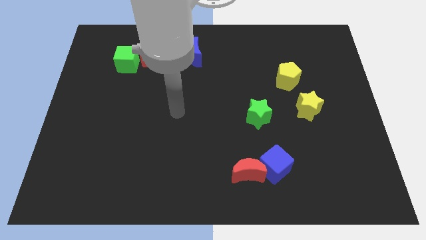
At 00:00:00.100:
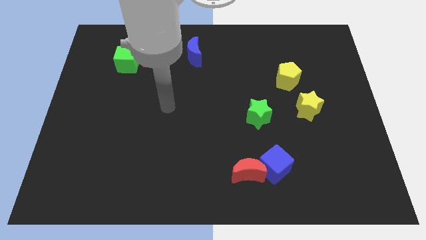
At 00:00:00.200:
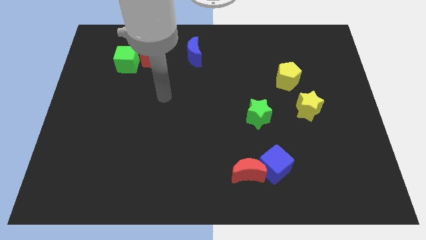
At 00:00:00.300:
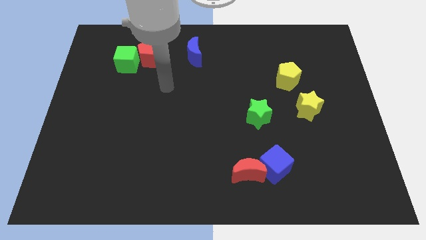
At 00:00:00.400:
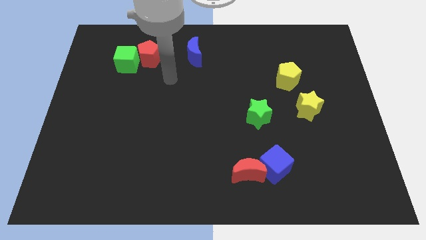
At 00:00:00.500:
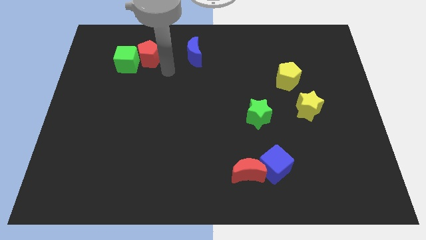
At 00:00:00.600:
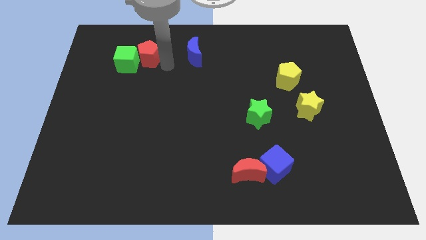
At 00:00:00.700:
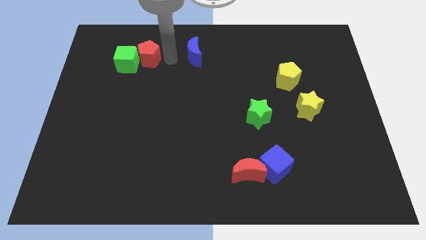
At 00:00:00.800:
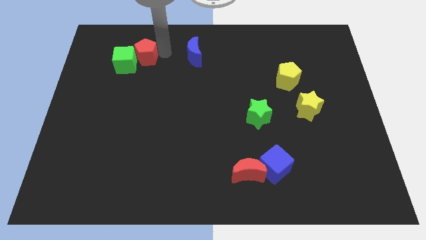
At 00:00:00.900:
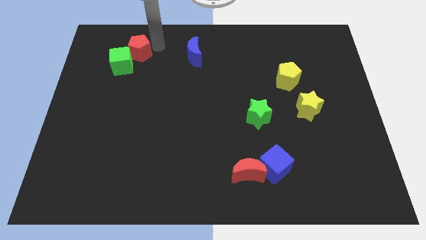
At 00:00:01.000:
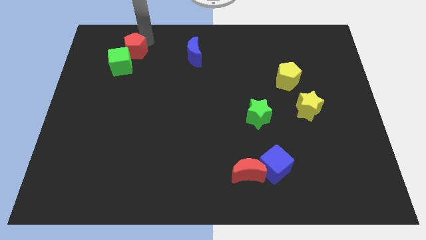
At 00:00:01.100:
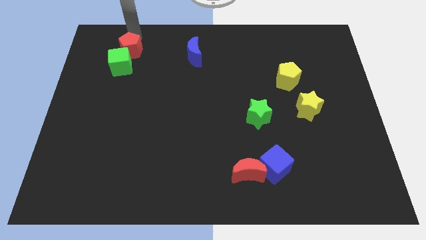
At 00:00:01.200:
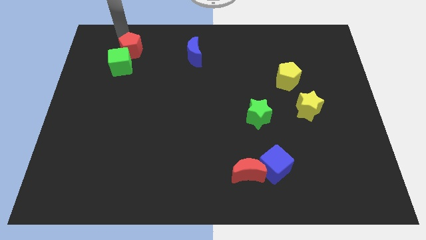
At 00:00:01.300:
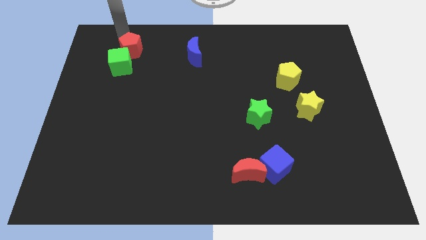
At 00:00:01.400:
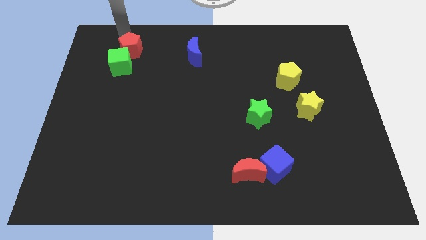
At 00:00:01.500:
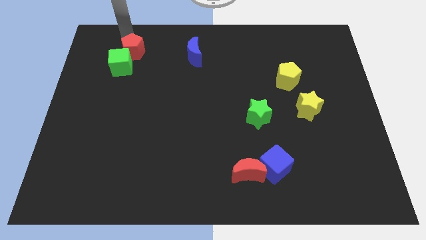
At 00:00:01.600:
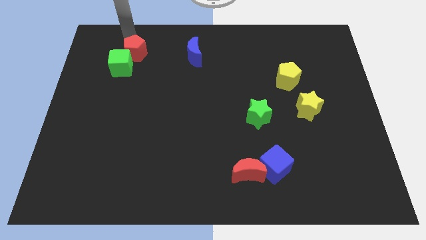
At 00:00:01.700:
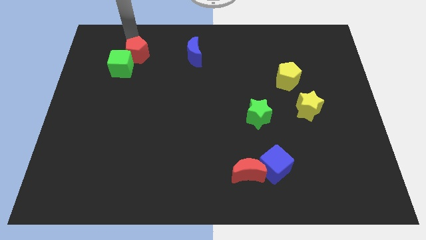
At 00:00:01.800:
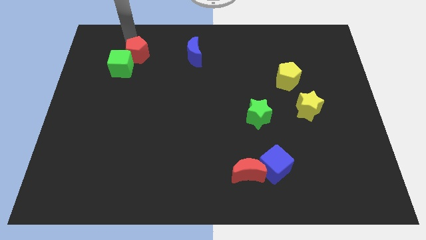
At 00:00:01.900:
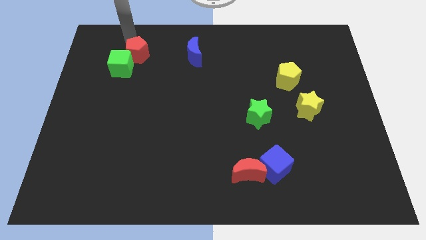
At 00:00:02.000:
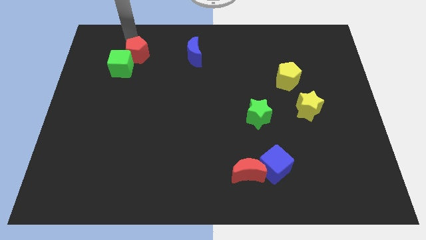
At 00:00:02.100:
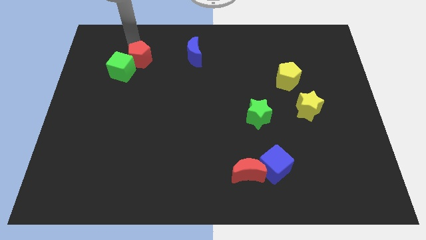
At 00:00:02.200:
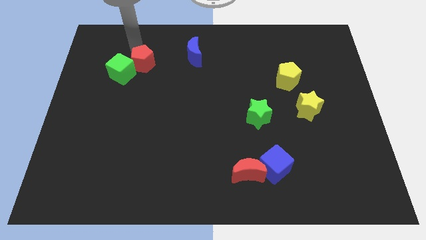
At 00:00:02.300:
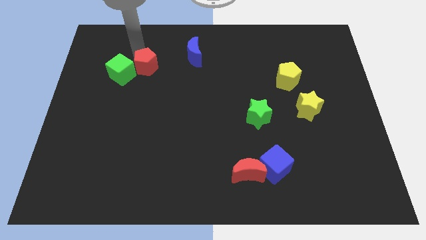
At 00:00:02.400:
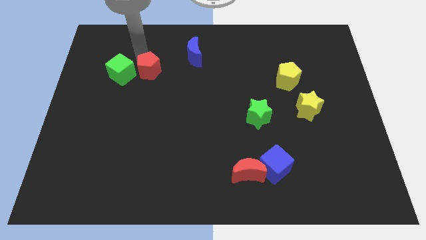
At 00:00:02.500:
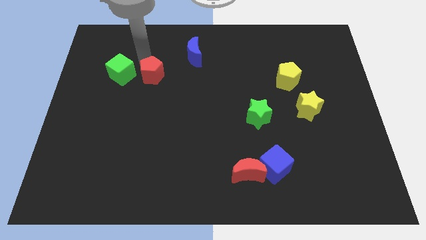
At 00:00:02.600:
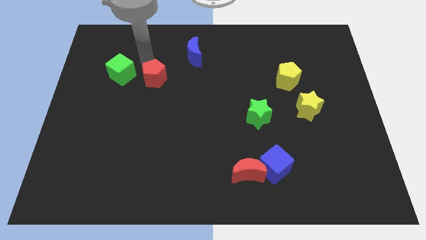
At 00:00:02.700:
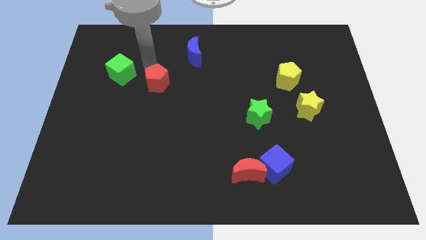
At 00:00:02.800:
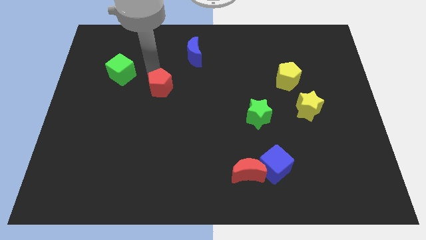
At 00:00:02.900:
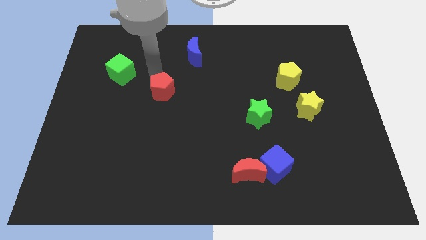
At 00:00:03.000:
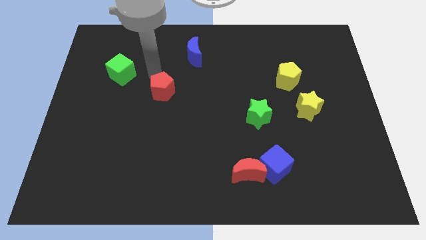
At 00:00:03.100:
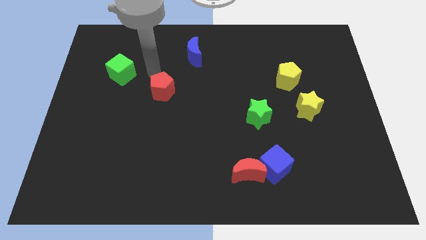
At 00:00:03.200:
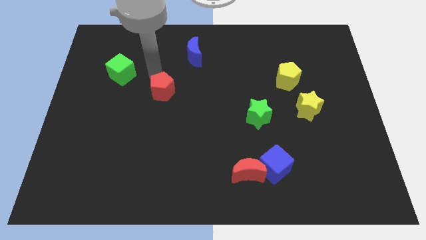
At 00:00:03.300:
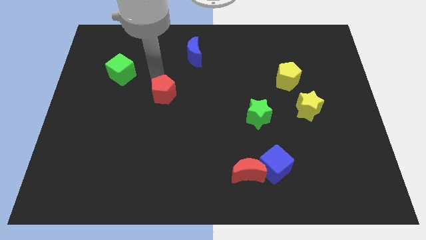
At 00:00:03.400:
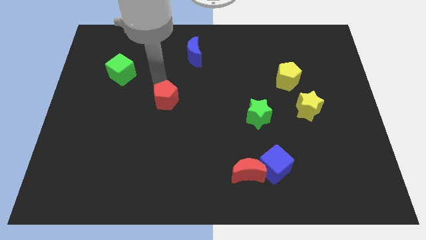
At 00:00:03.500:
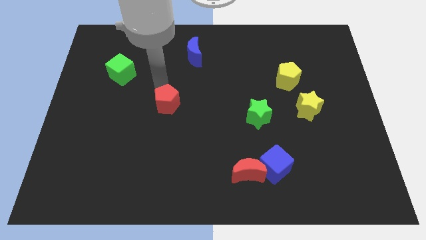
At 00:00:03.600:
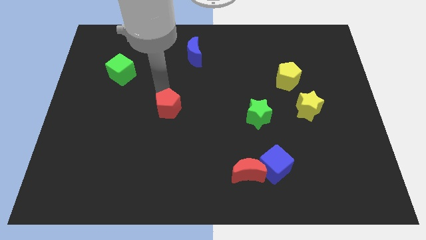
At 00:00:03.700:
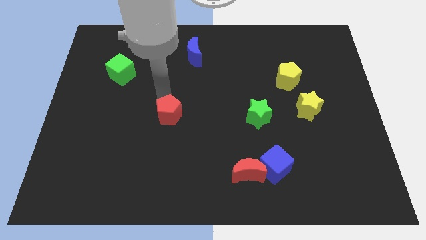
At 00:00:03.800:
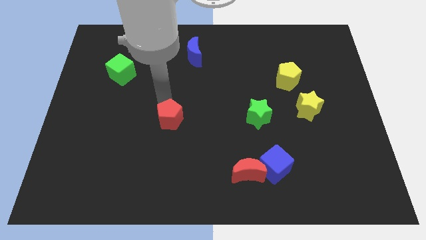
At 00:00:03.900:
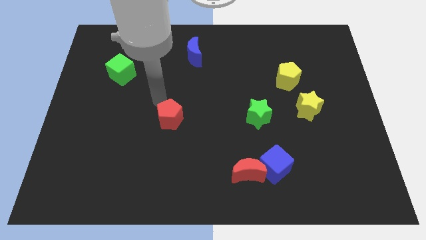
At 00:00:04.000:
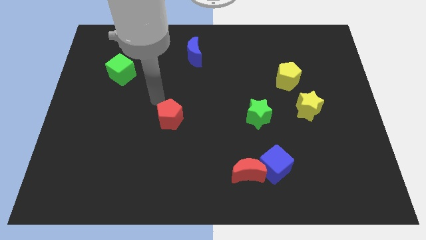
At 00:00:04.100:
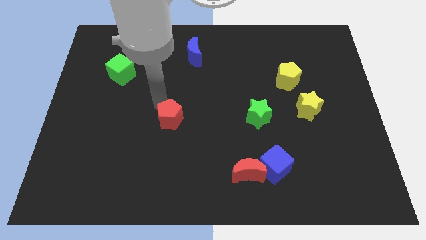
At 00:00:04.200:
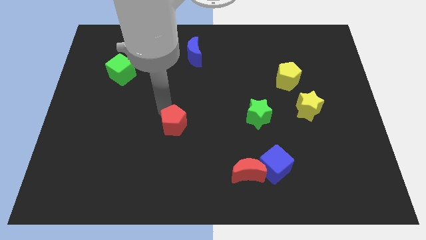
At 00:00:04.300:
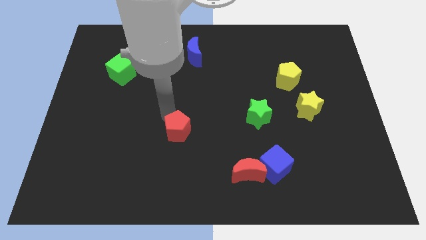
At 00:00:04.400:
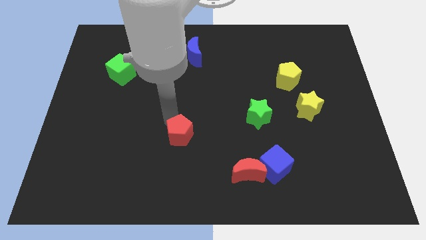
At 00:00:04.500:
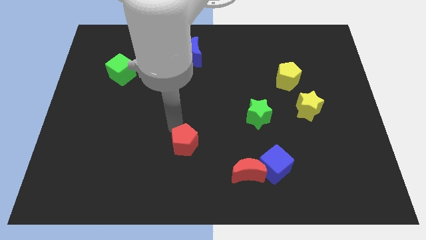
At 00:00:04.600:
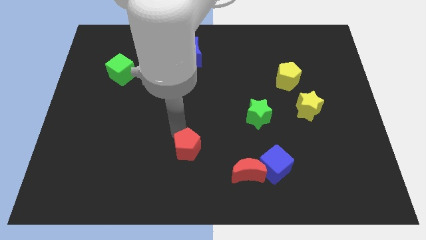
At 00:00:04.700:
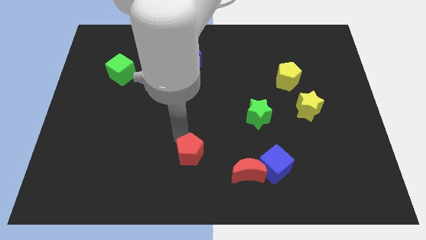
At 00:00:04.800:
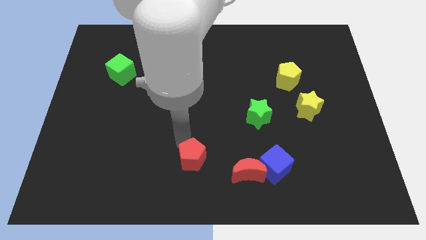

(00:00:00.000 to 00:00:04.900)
slide the red pentagon to the bottom side

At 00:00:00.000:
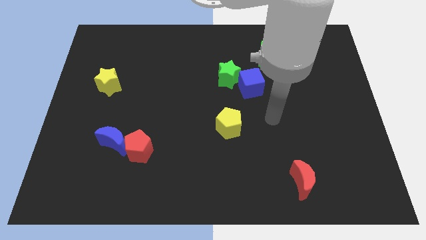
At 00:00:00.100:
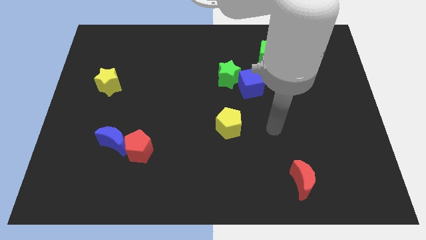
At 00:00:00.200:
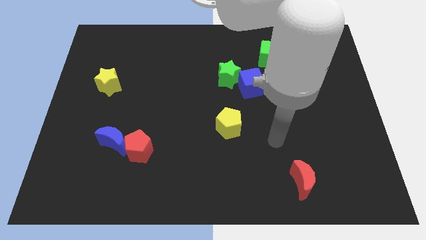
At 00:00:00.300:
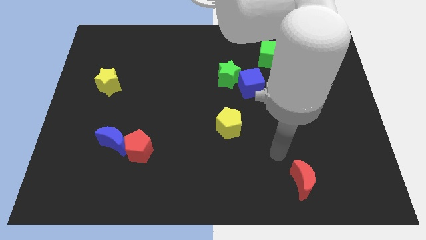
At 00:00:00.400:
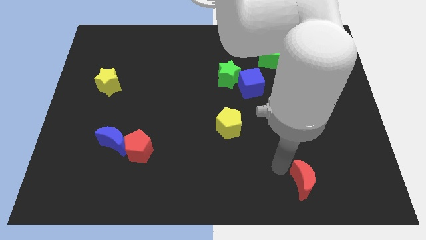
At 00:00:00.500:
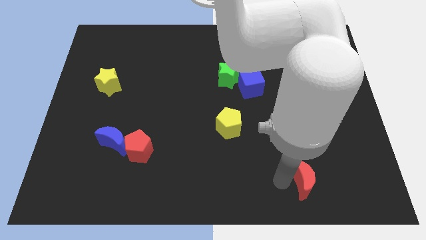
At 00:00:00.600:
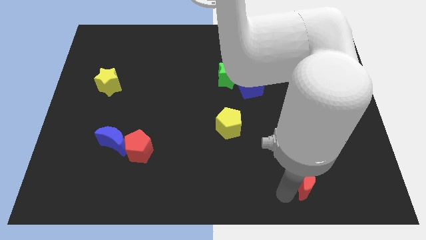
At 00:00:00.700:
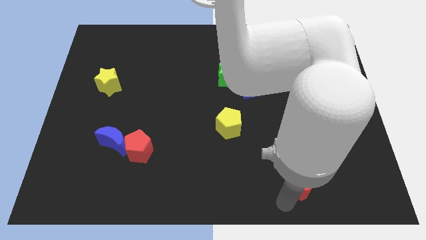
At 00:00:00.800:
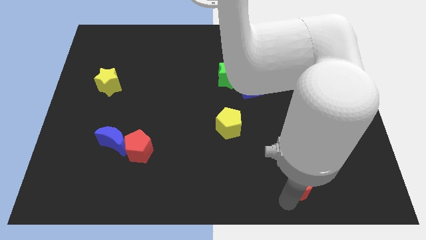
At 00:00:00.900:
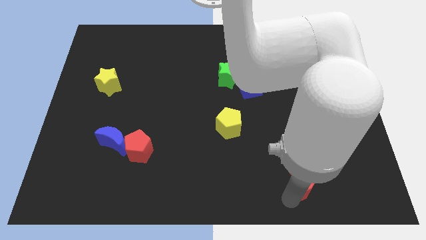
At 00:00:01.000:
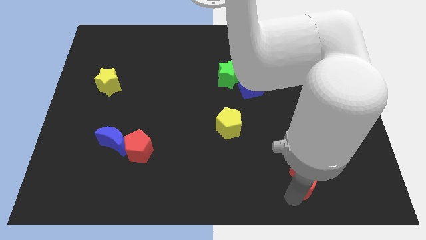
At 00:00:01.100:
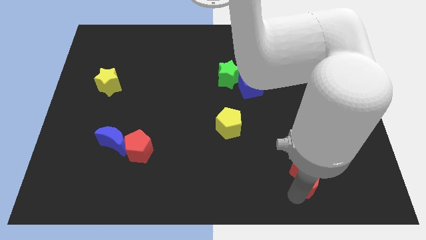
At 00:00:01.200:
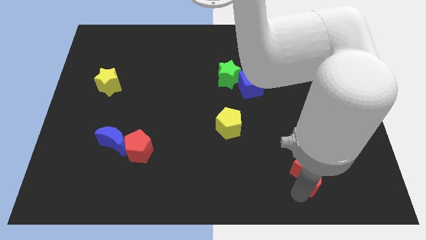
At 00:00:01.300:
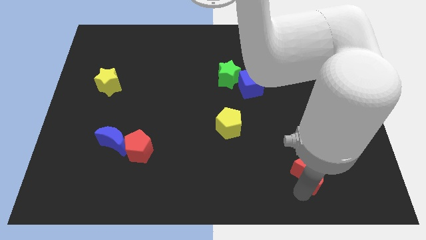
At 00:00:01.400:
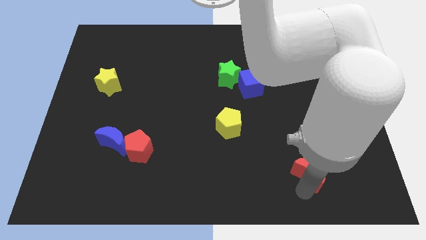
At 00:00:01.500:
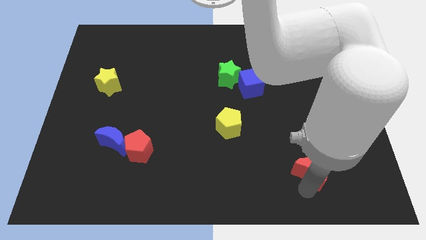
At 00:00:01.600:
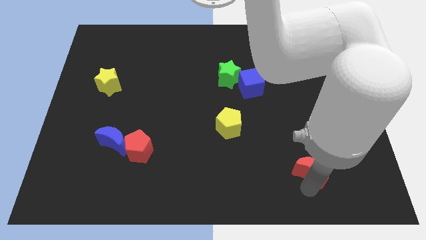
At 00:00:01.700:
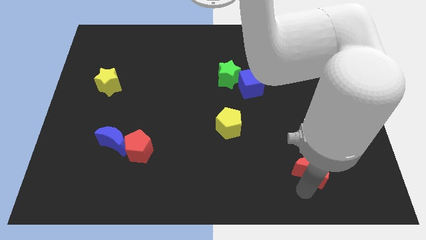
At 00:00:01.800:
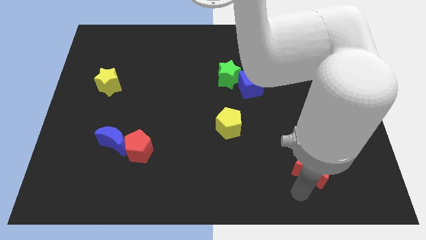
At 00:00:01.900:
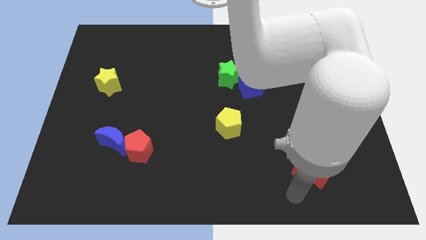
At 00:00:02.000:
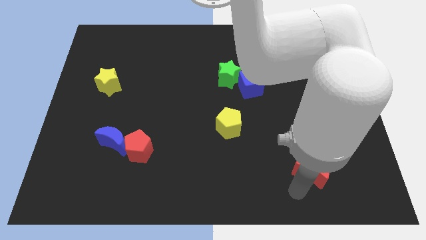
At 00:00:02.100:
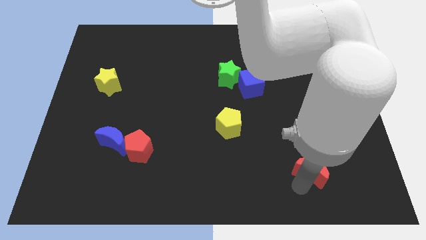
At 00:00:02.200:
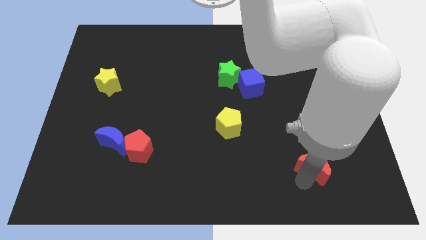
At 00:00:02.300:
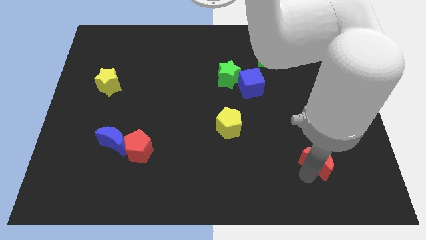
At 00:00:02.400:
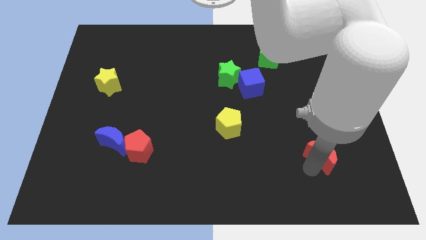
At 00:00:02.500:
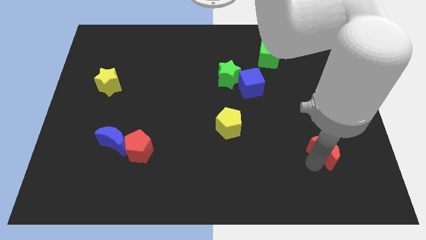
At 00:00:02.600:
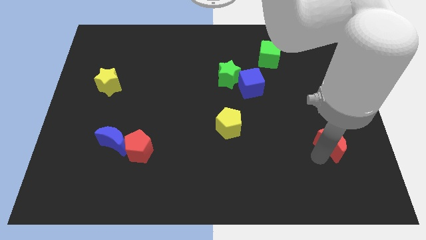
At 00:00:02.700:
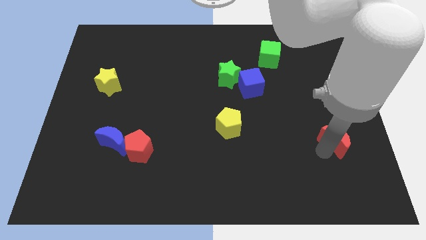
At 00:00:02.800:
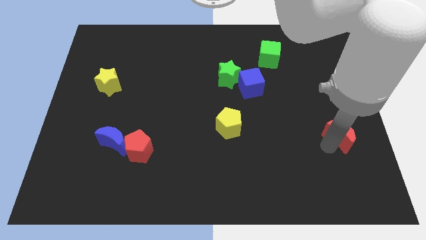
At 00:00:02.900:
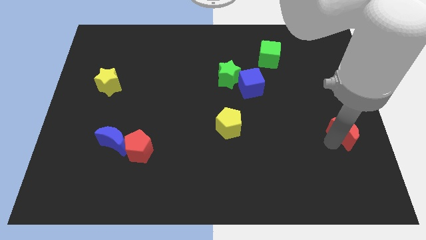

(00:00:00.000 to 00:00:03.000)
move the red moon to the right side
